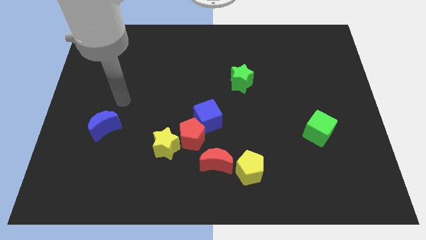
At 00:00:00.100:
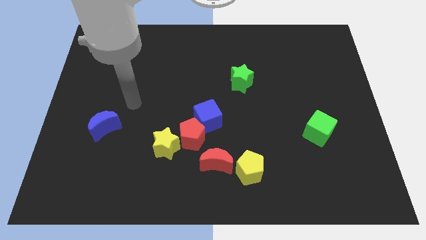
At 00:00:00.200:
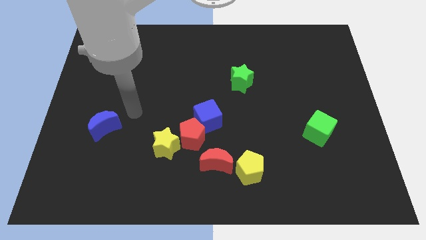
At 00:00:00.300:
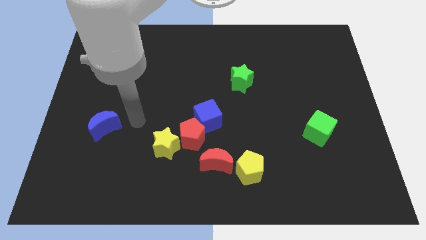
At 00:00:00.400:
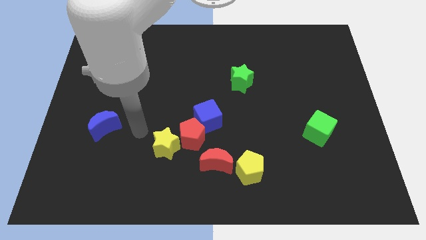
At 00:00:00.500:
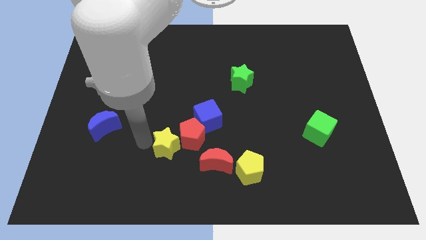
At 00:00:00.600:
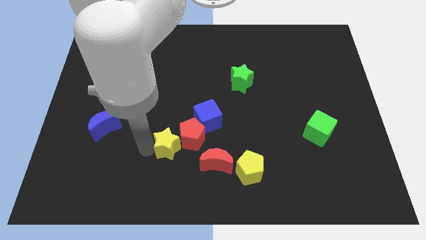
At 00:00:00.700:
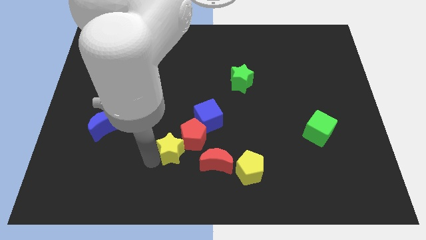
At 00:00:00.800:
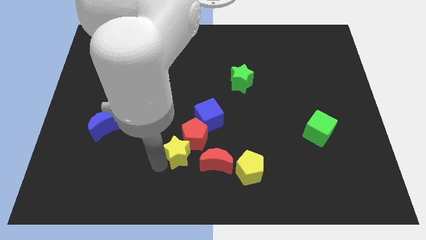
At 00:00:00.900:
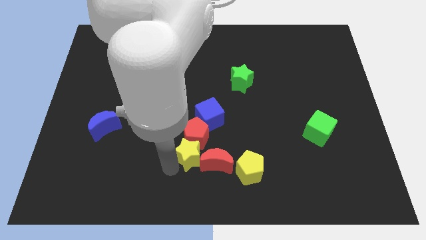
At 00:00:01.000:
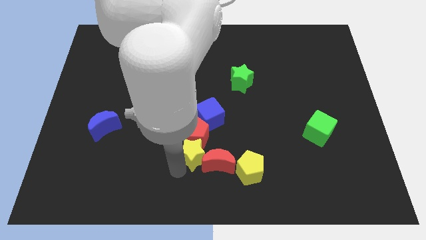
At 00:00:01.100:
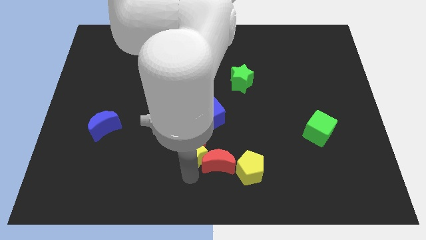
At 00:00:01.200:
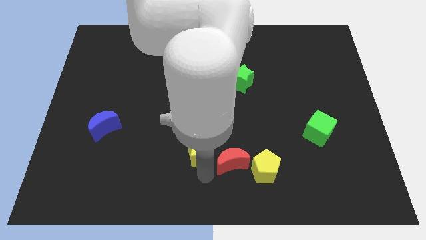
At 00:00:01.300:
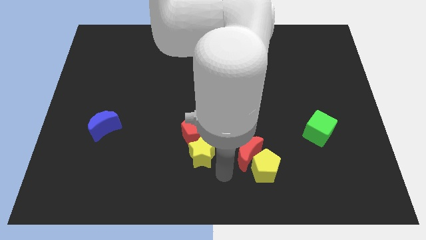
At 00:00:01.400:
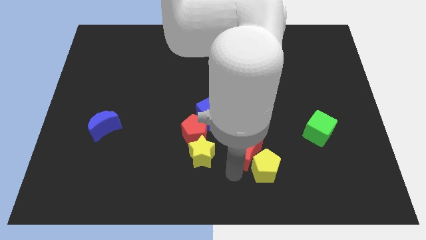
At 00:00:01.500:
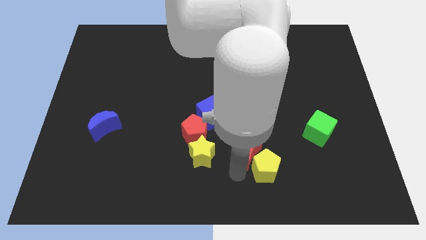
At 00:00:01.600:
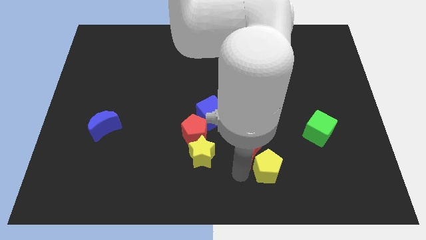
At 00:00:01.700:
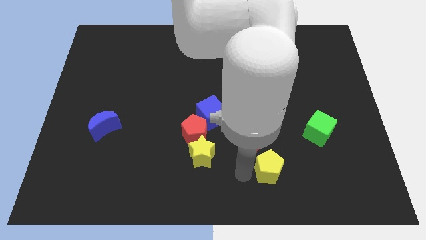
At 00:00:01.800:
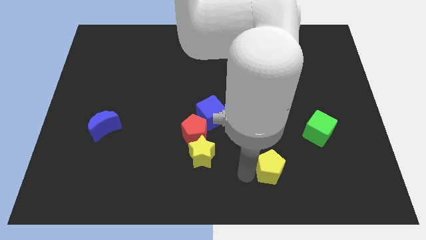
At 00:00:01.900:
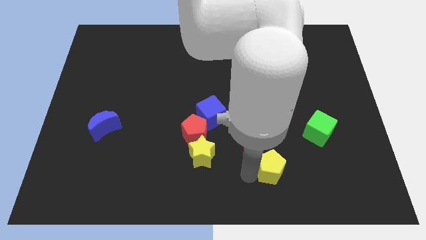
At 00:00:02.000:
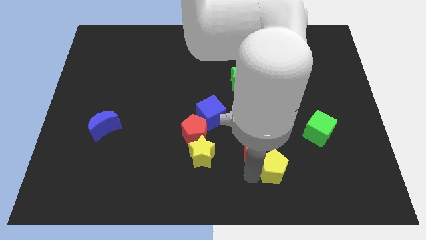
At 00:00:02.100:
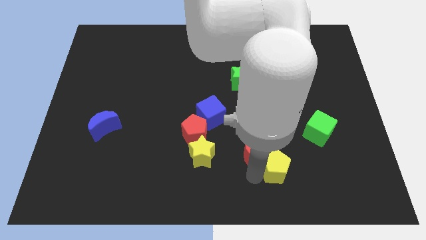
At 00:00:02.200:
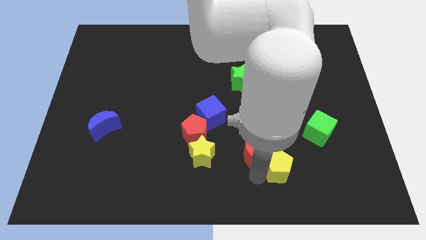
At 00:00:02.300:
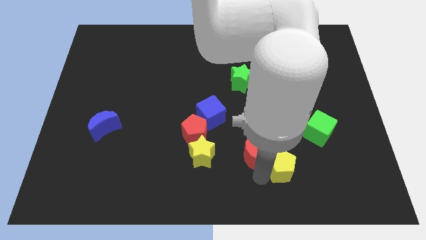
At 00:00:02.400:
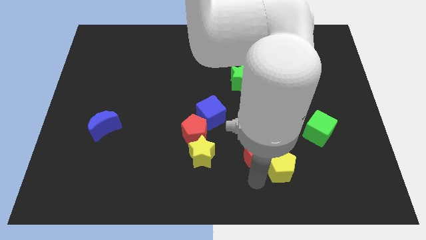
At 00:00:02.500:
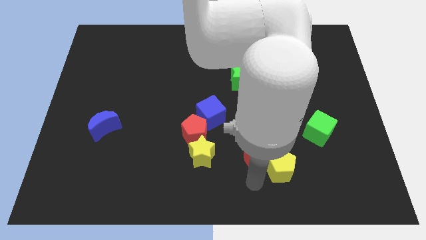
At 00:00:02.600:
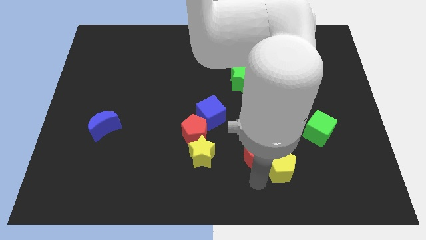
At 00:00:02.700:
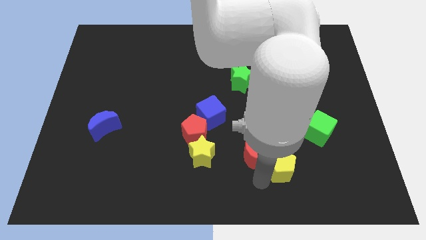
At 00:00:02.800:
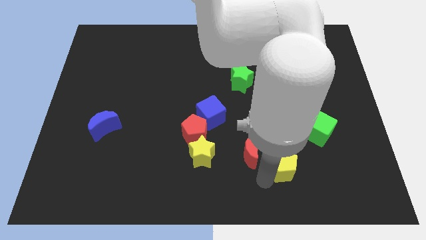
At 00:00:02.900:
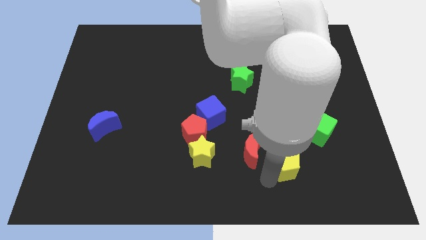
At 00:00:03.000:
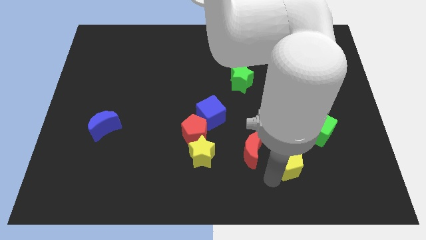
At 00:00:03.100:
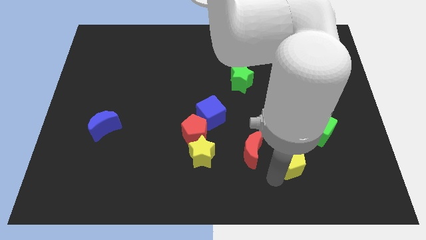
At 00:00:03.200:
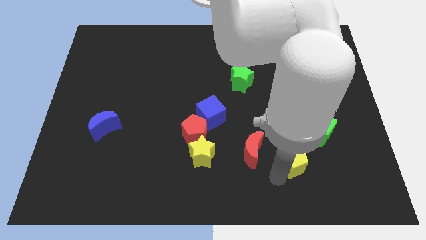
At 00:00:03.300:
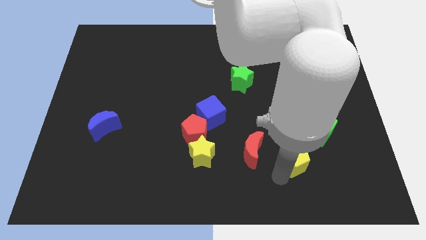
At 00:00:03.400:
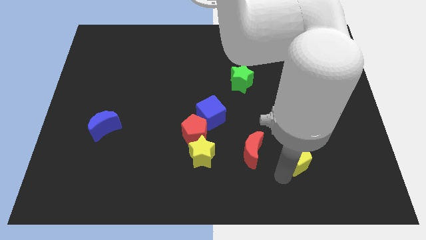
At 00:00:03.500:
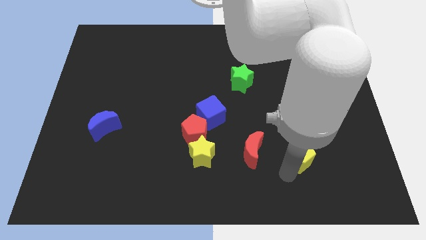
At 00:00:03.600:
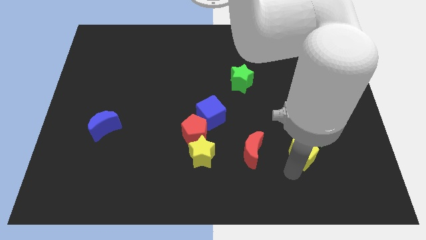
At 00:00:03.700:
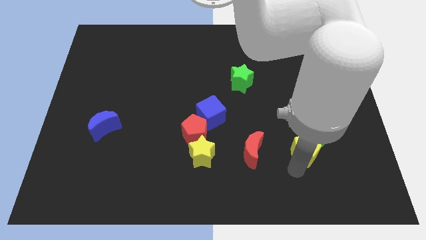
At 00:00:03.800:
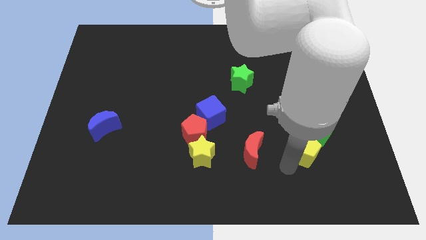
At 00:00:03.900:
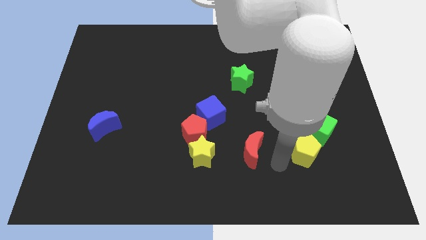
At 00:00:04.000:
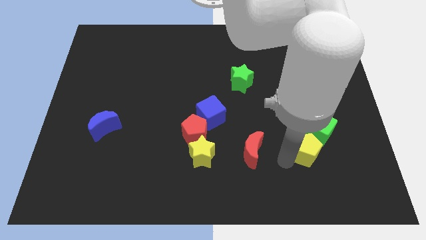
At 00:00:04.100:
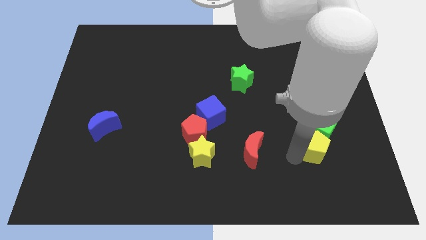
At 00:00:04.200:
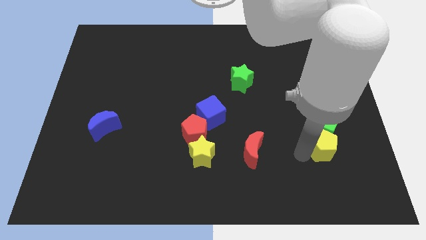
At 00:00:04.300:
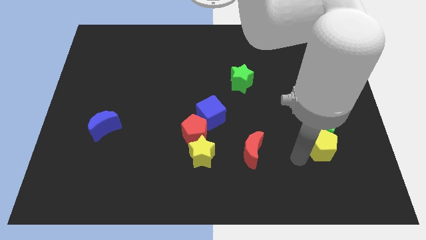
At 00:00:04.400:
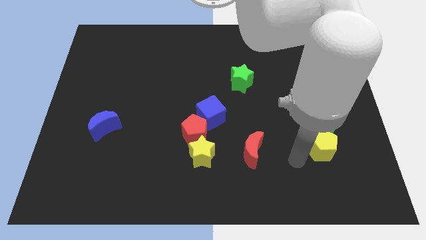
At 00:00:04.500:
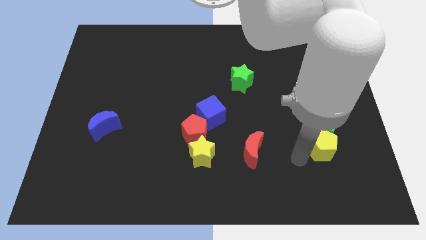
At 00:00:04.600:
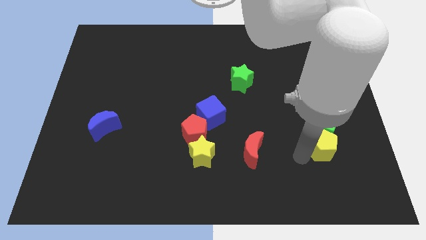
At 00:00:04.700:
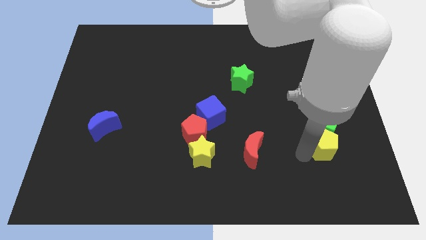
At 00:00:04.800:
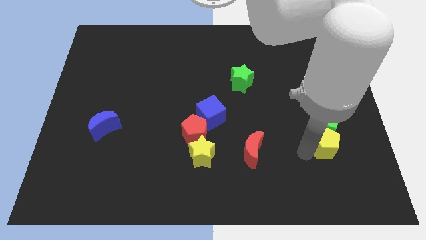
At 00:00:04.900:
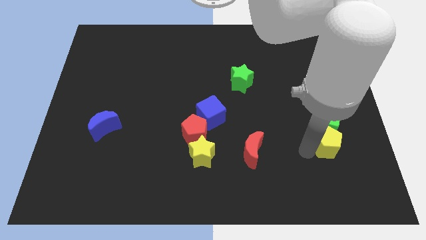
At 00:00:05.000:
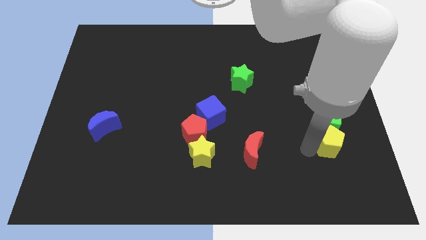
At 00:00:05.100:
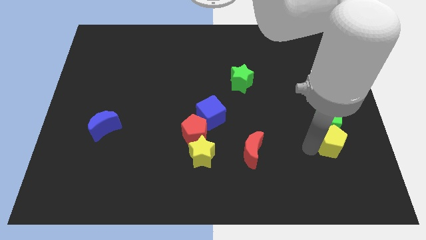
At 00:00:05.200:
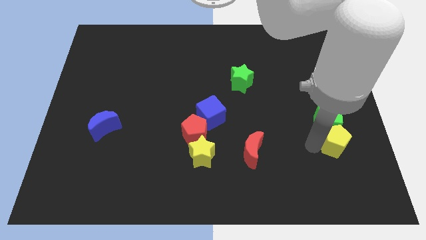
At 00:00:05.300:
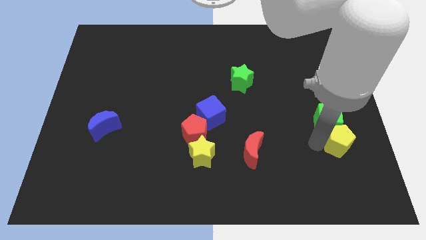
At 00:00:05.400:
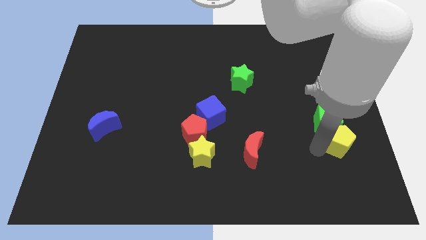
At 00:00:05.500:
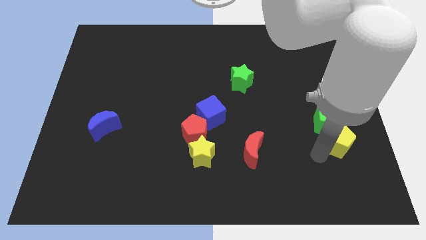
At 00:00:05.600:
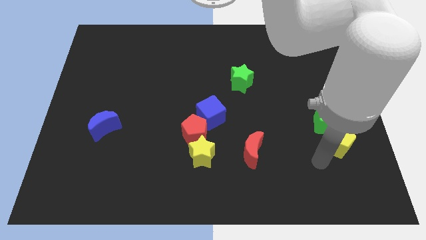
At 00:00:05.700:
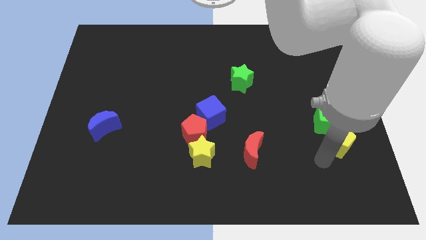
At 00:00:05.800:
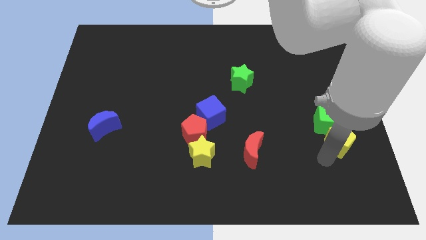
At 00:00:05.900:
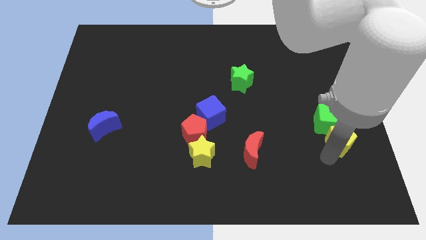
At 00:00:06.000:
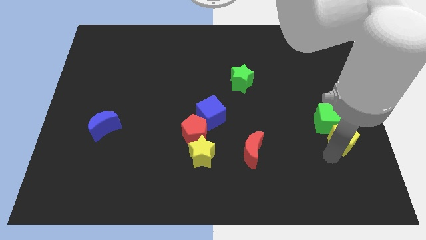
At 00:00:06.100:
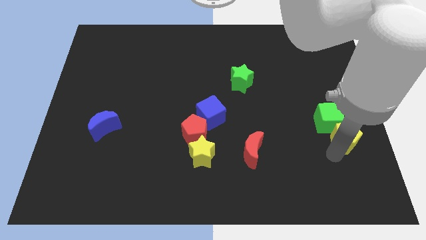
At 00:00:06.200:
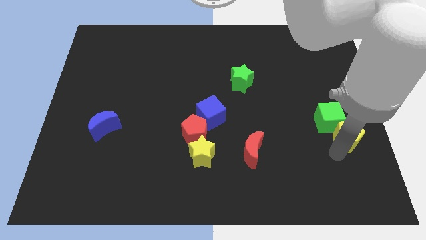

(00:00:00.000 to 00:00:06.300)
put the yellow pentagon to the right side
